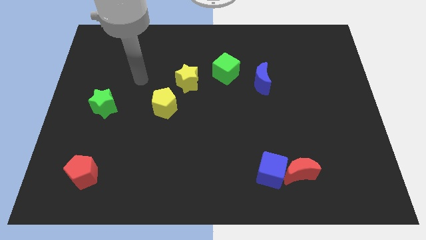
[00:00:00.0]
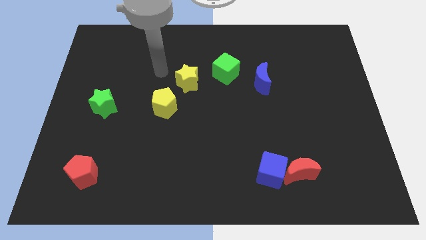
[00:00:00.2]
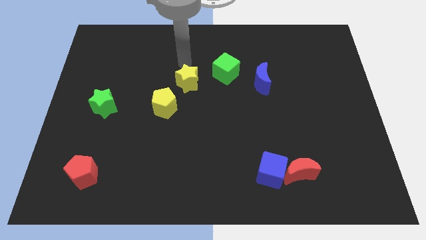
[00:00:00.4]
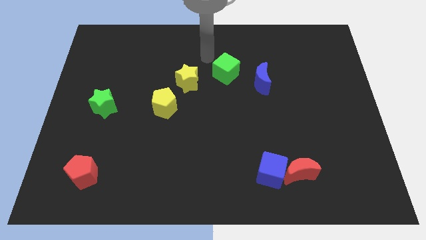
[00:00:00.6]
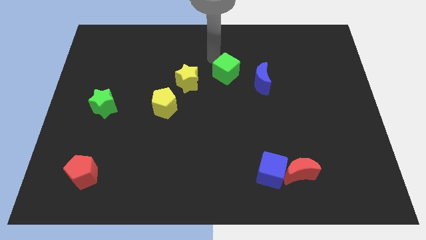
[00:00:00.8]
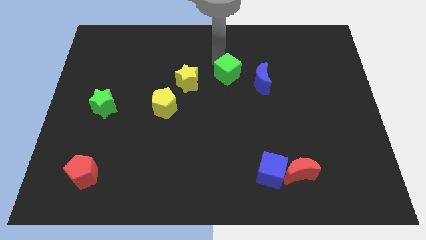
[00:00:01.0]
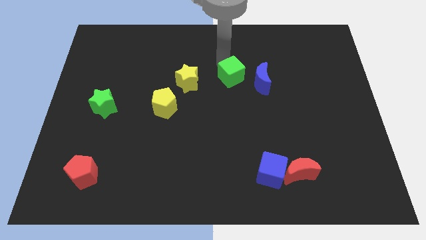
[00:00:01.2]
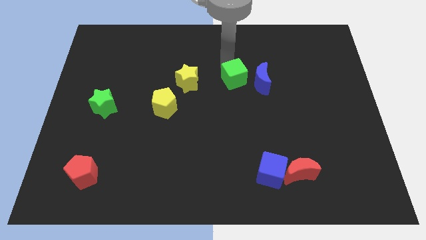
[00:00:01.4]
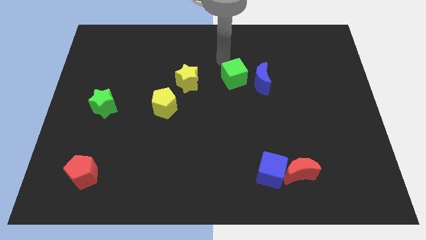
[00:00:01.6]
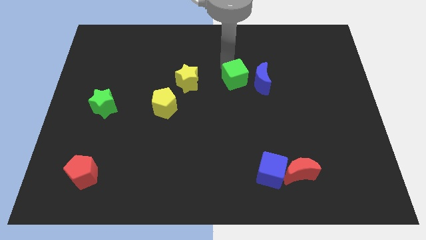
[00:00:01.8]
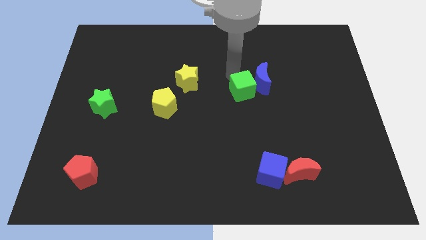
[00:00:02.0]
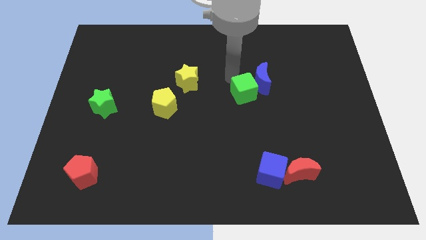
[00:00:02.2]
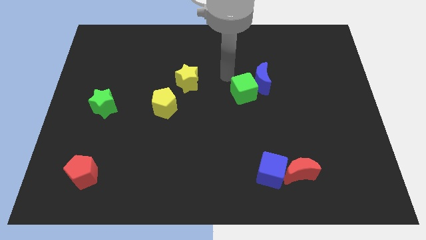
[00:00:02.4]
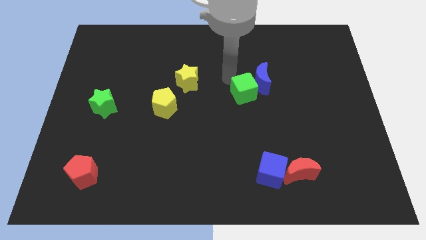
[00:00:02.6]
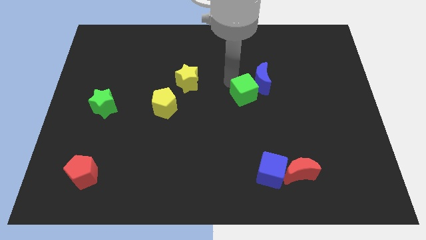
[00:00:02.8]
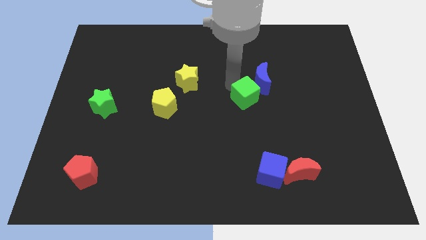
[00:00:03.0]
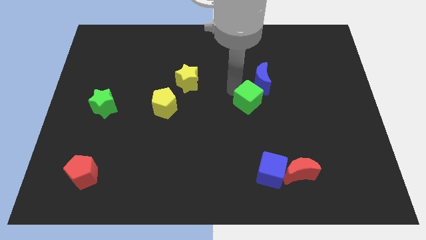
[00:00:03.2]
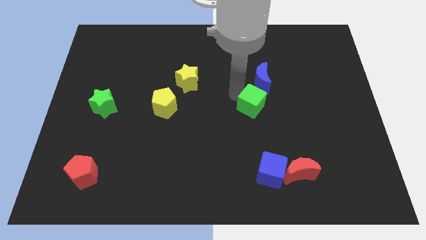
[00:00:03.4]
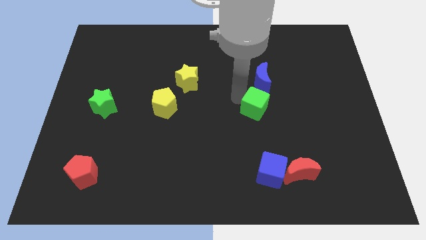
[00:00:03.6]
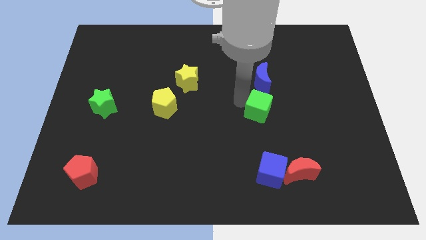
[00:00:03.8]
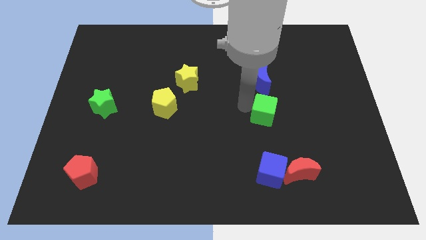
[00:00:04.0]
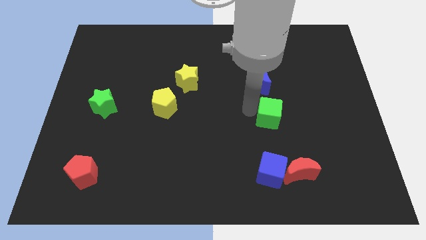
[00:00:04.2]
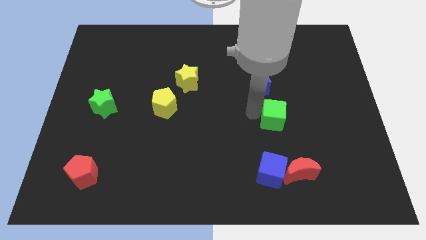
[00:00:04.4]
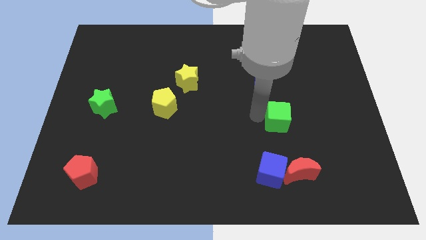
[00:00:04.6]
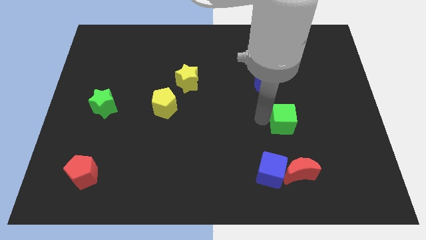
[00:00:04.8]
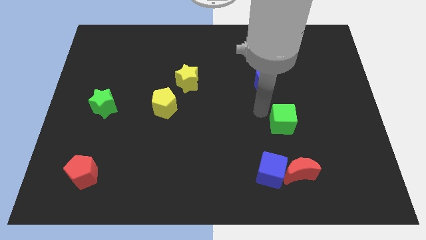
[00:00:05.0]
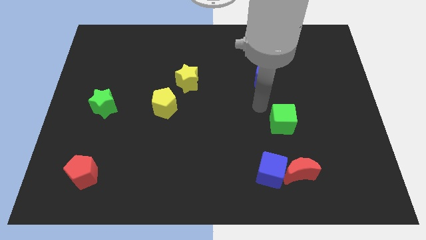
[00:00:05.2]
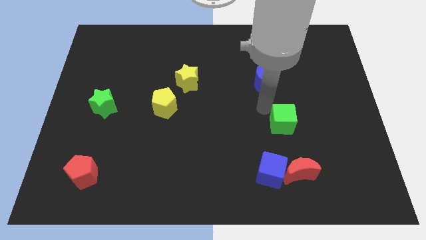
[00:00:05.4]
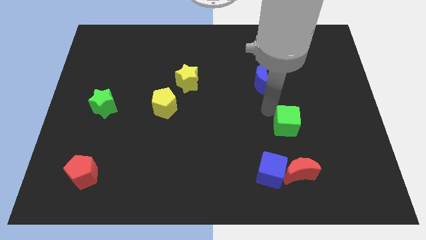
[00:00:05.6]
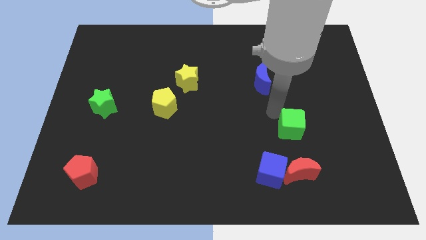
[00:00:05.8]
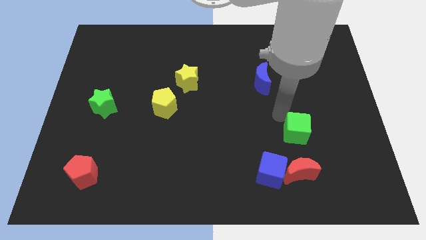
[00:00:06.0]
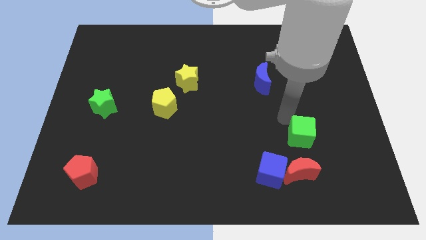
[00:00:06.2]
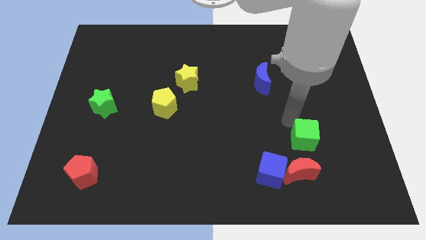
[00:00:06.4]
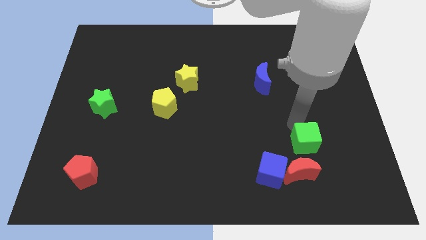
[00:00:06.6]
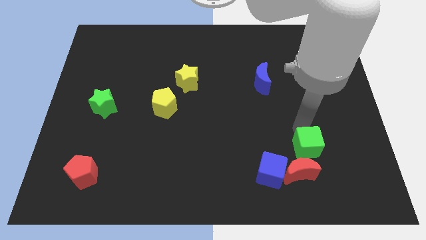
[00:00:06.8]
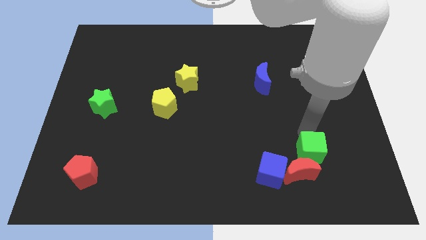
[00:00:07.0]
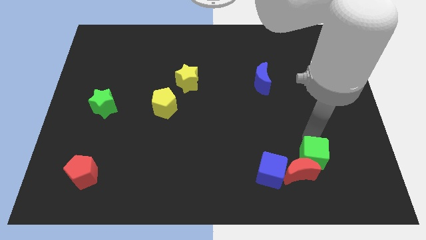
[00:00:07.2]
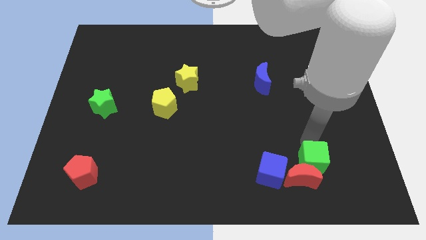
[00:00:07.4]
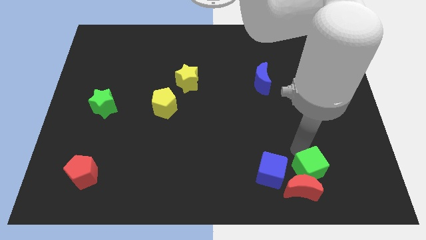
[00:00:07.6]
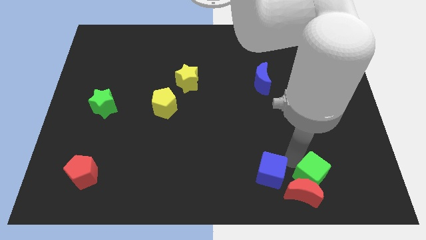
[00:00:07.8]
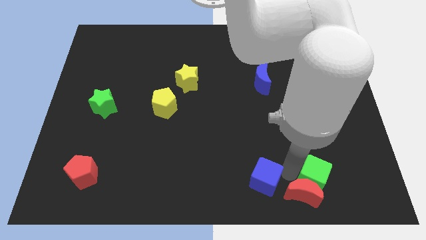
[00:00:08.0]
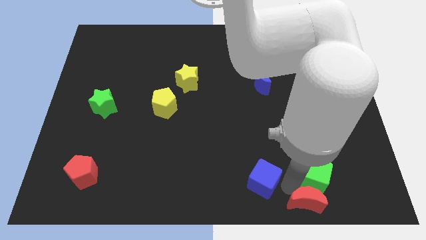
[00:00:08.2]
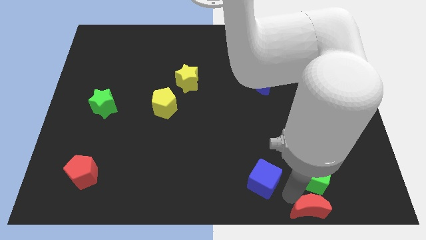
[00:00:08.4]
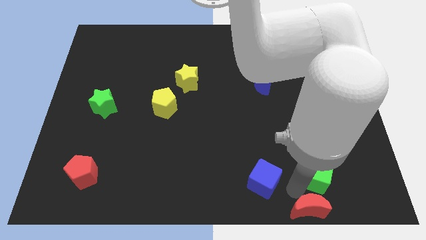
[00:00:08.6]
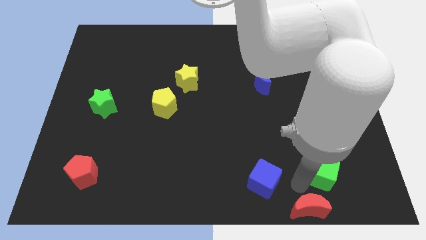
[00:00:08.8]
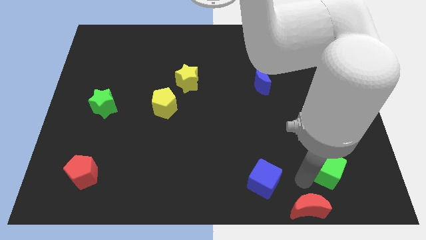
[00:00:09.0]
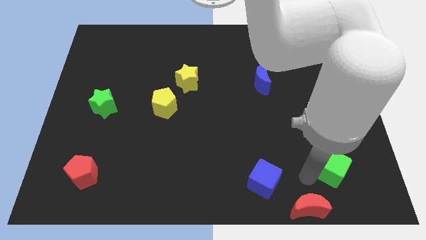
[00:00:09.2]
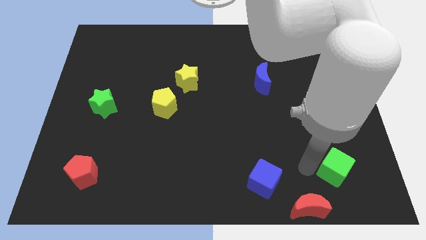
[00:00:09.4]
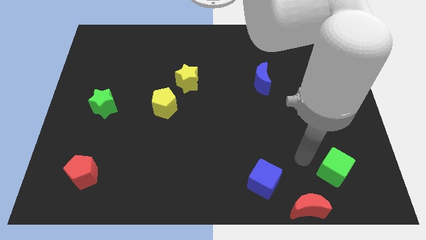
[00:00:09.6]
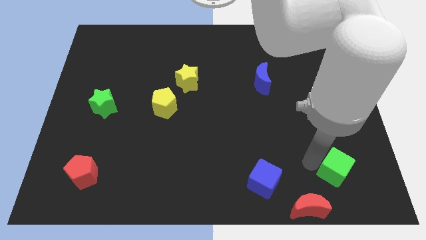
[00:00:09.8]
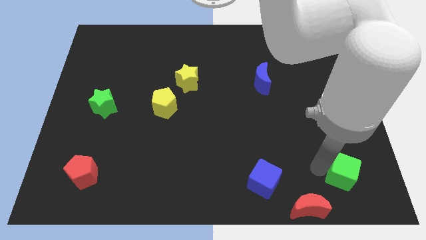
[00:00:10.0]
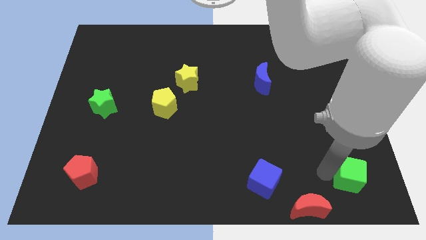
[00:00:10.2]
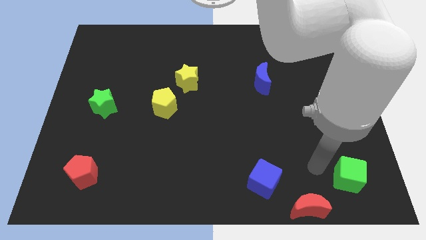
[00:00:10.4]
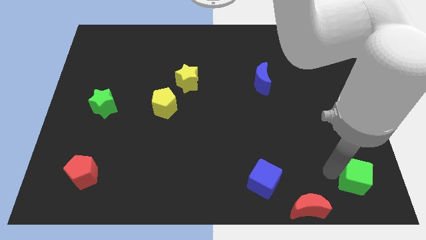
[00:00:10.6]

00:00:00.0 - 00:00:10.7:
slide the green cube to the bottom right corner

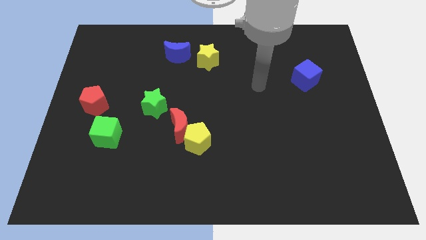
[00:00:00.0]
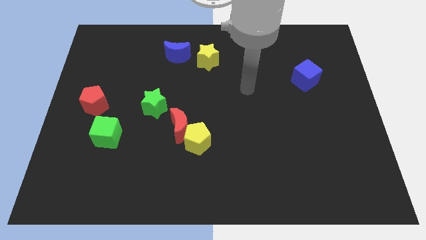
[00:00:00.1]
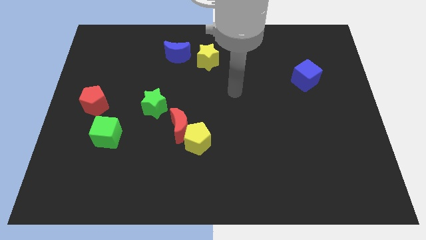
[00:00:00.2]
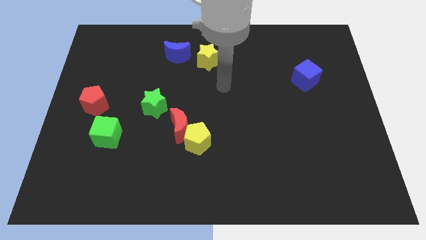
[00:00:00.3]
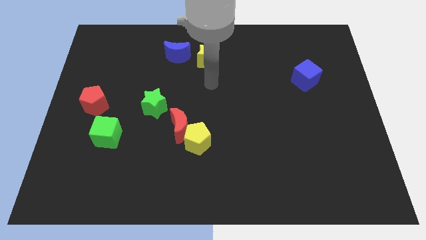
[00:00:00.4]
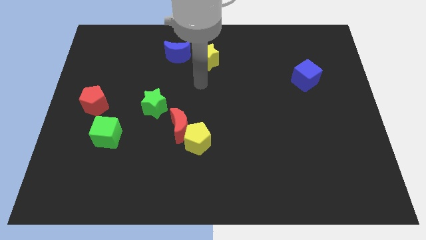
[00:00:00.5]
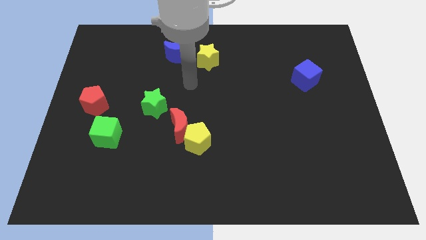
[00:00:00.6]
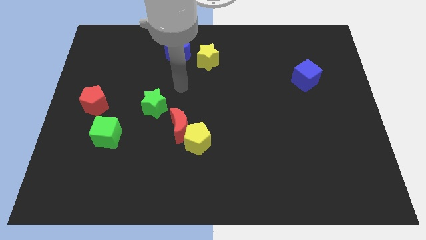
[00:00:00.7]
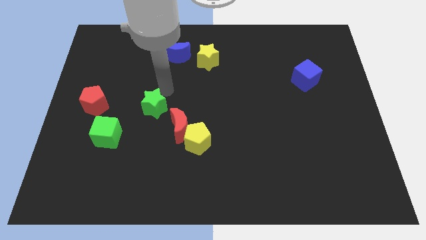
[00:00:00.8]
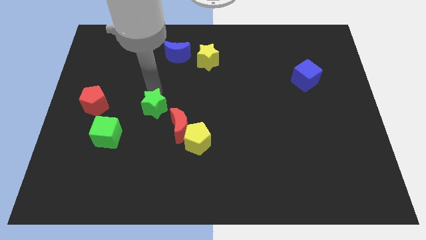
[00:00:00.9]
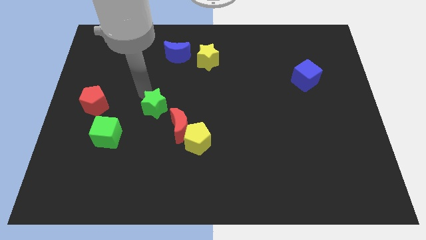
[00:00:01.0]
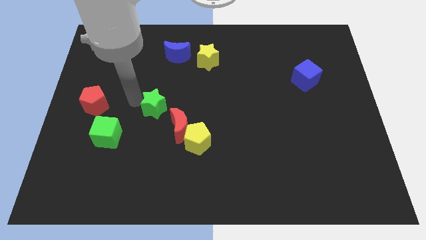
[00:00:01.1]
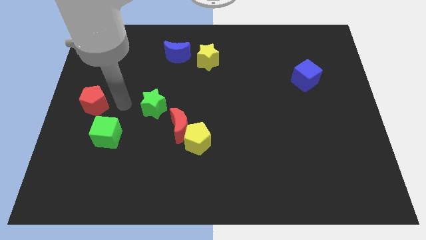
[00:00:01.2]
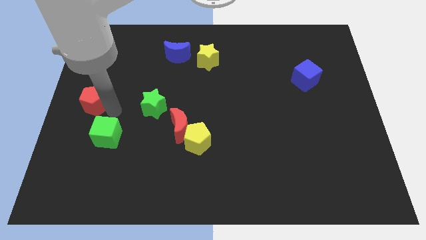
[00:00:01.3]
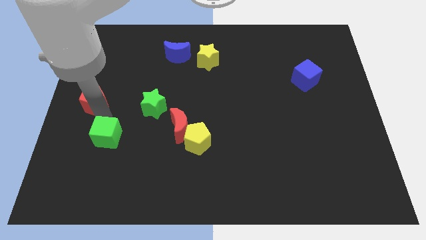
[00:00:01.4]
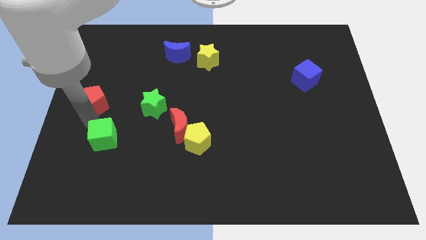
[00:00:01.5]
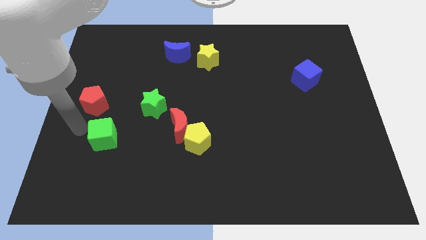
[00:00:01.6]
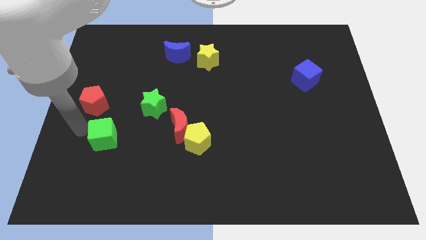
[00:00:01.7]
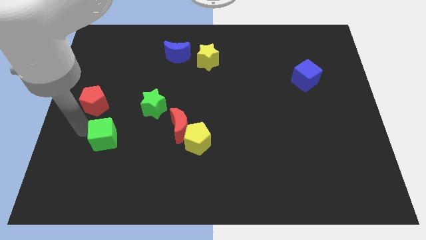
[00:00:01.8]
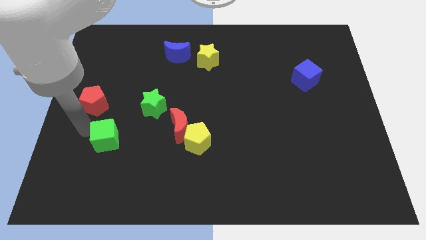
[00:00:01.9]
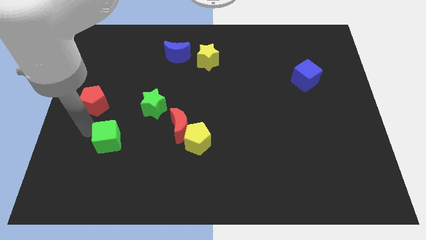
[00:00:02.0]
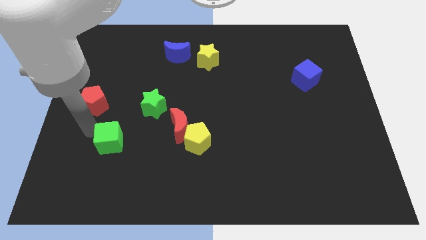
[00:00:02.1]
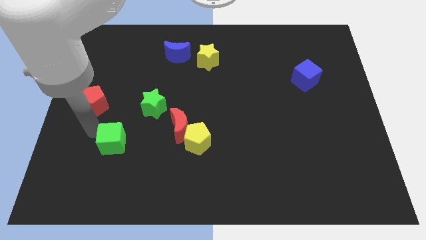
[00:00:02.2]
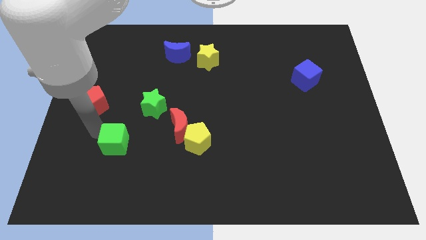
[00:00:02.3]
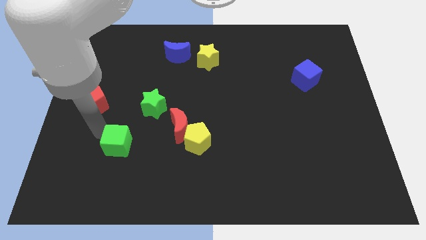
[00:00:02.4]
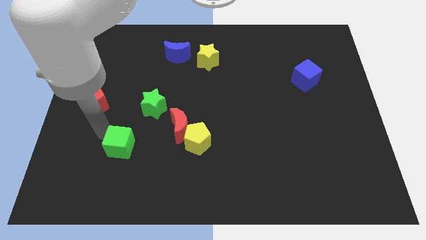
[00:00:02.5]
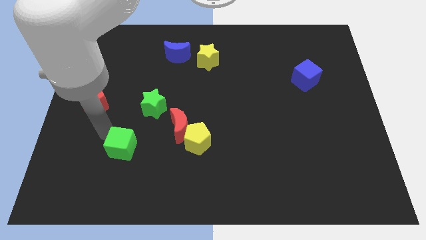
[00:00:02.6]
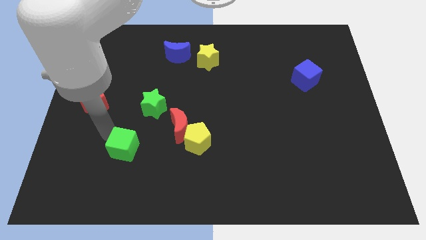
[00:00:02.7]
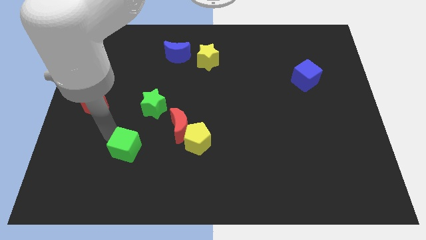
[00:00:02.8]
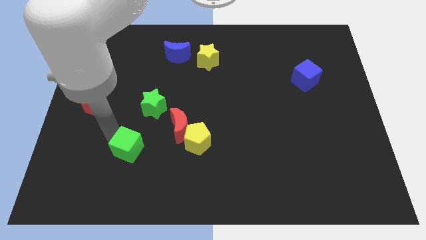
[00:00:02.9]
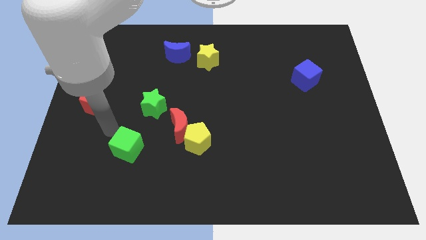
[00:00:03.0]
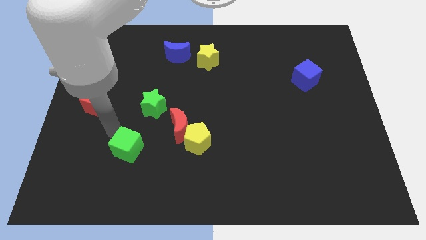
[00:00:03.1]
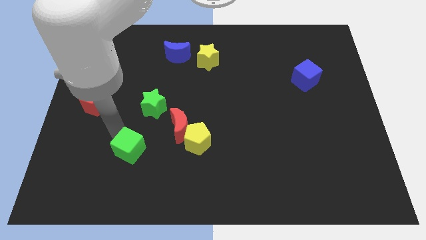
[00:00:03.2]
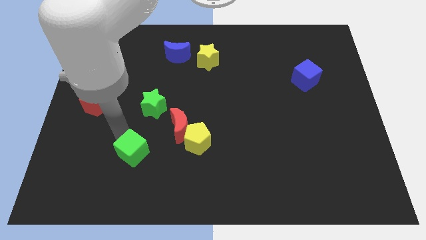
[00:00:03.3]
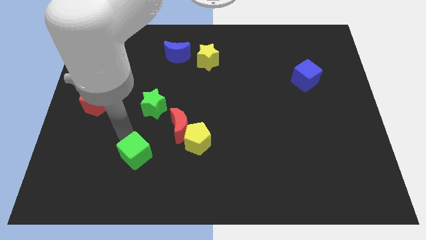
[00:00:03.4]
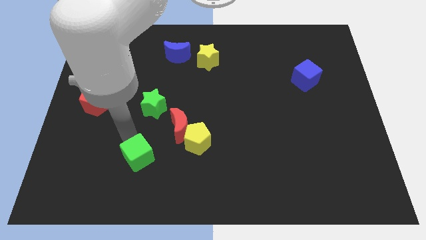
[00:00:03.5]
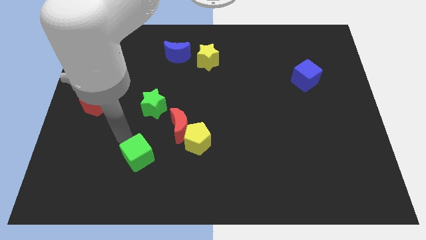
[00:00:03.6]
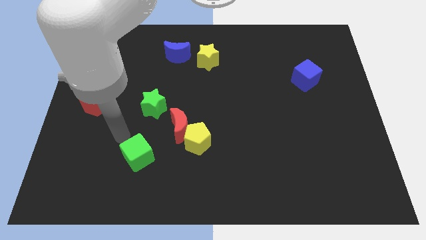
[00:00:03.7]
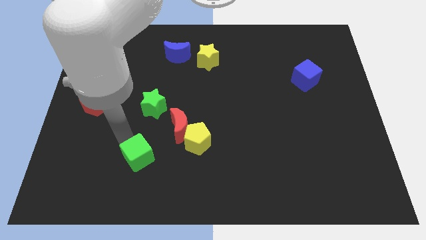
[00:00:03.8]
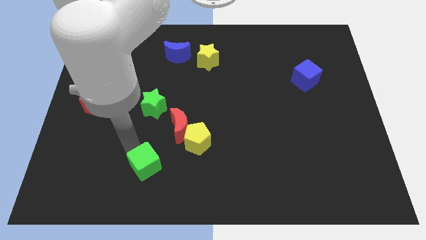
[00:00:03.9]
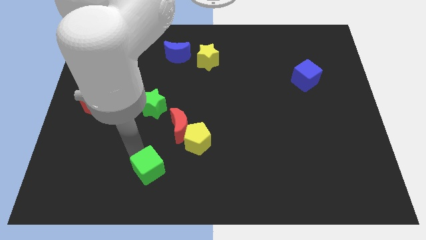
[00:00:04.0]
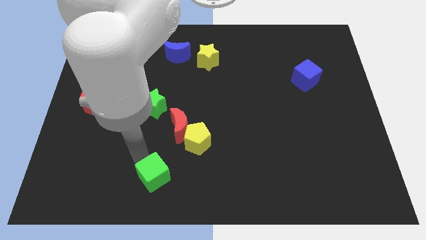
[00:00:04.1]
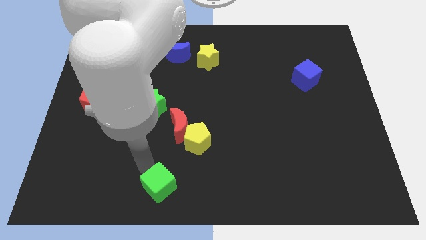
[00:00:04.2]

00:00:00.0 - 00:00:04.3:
put the green cube to the bottom side
